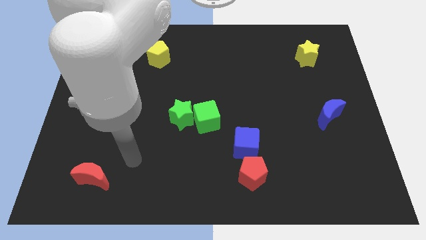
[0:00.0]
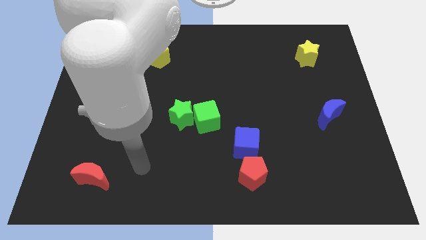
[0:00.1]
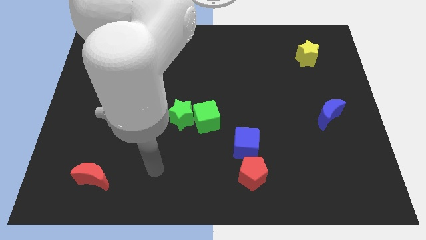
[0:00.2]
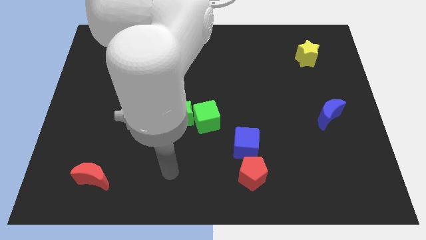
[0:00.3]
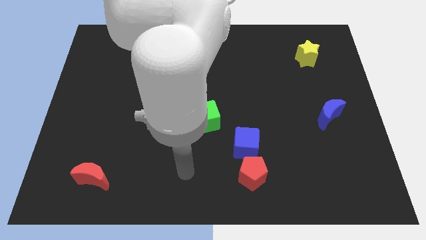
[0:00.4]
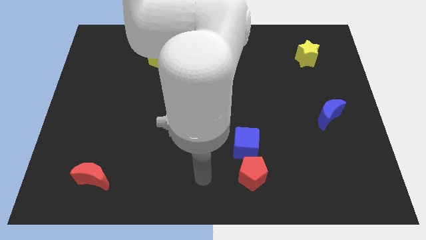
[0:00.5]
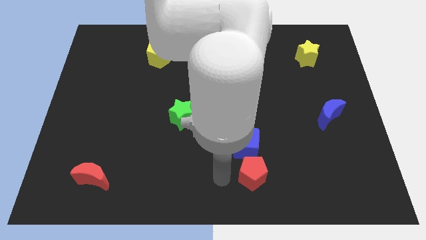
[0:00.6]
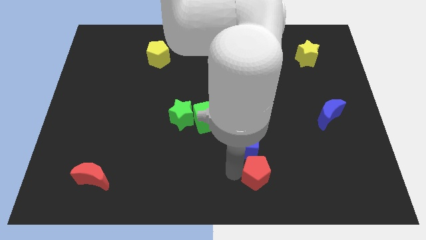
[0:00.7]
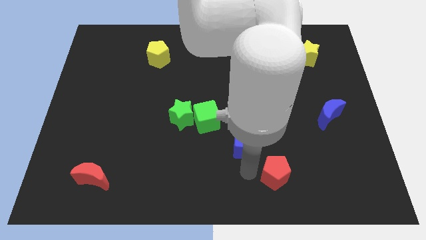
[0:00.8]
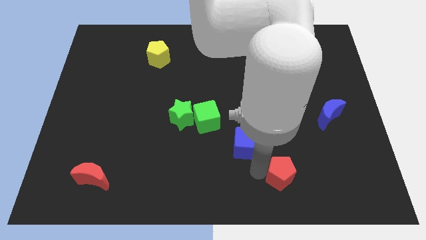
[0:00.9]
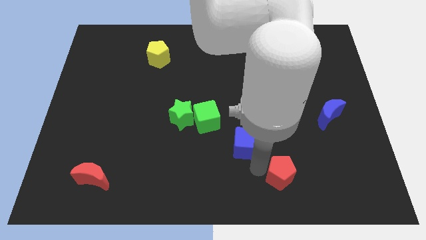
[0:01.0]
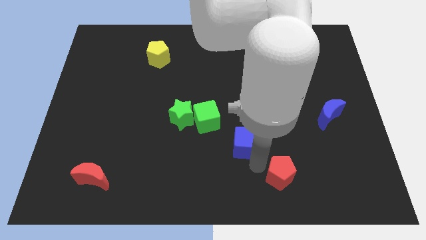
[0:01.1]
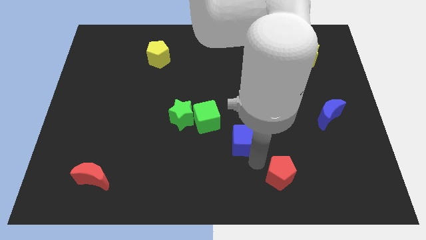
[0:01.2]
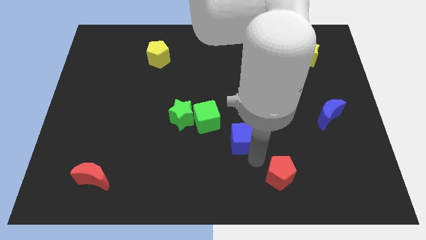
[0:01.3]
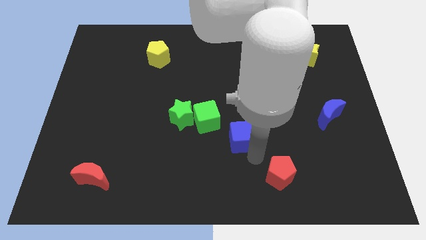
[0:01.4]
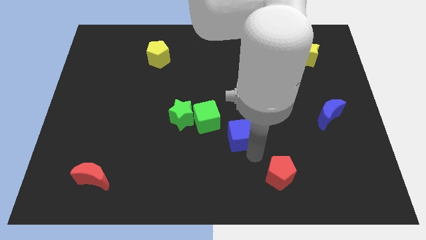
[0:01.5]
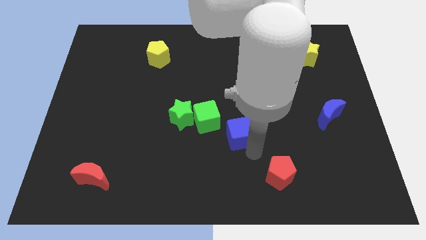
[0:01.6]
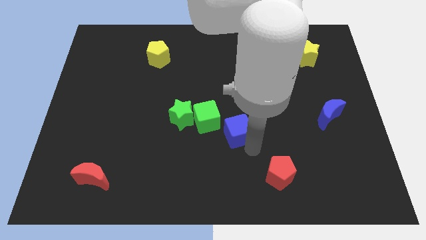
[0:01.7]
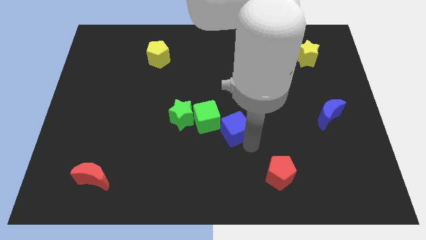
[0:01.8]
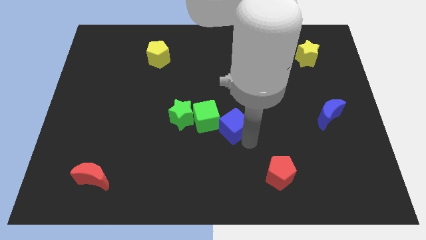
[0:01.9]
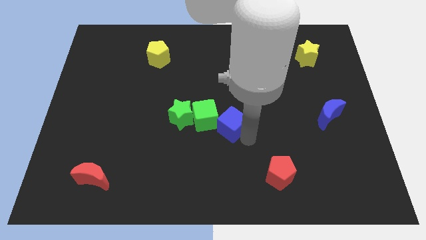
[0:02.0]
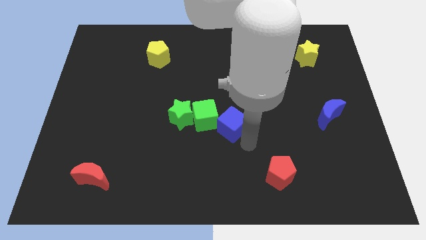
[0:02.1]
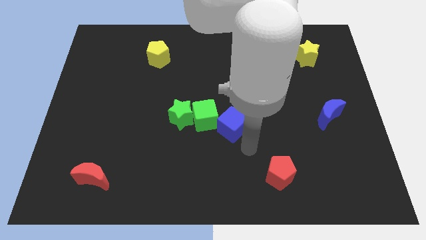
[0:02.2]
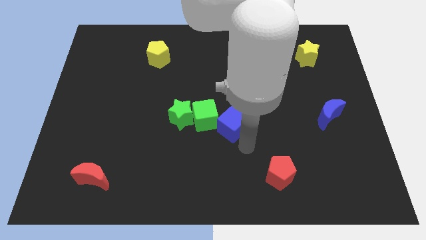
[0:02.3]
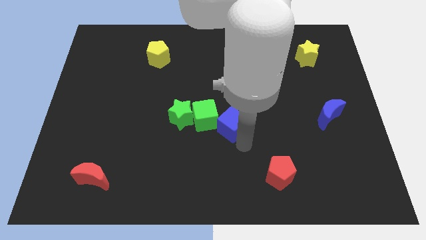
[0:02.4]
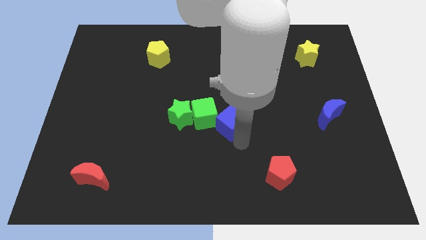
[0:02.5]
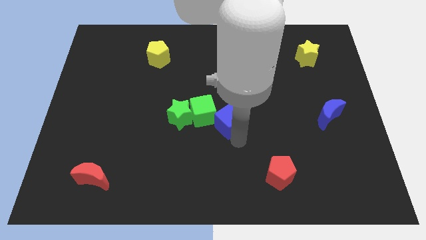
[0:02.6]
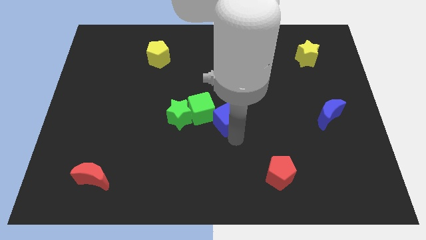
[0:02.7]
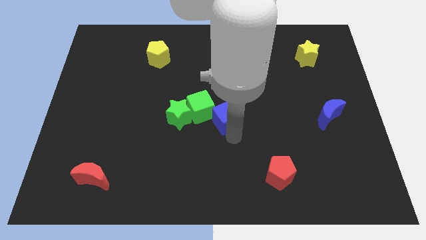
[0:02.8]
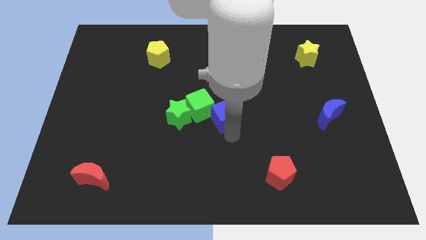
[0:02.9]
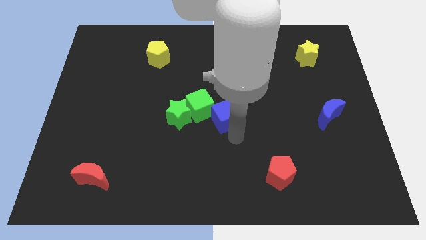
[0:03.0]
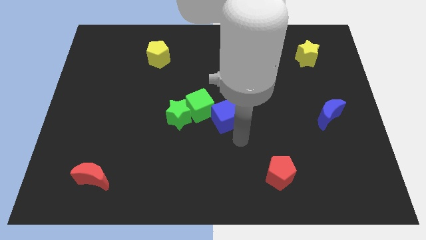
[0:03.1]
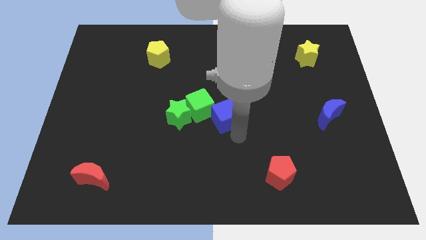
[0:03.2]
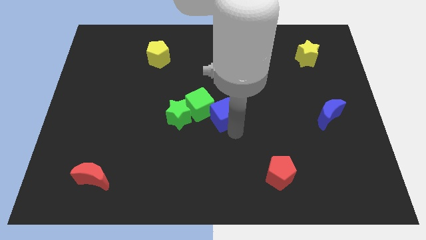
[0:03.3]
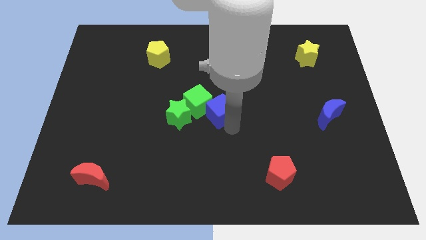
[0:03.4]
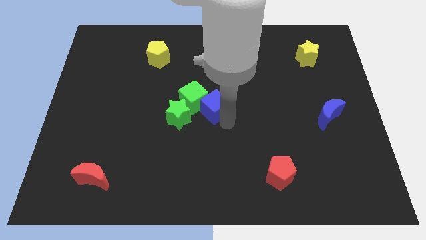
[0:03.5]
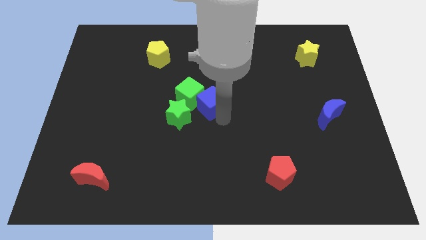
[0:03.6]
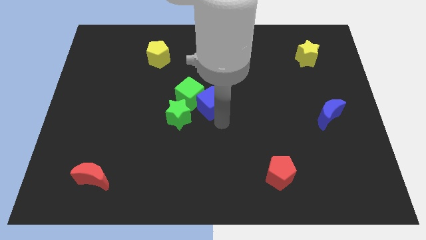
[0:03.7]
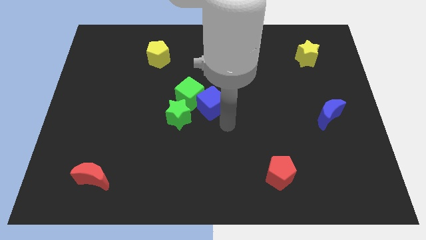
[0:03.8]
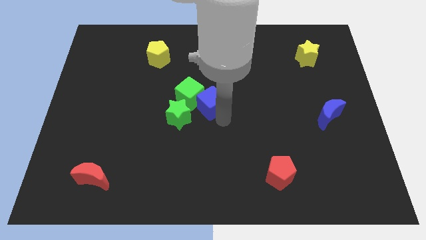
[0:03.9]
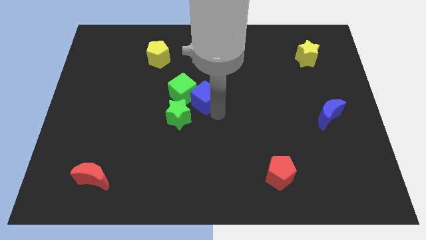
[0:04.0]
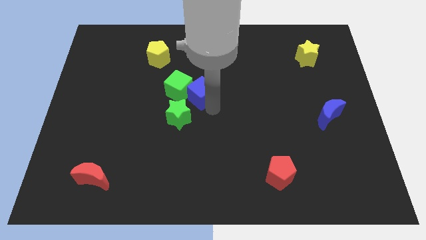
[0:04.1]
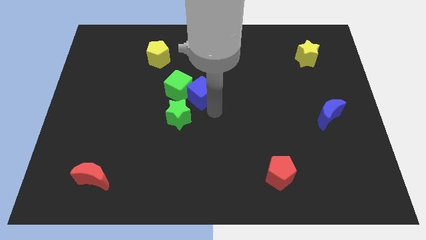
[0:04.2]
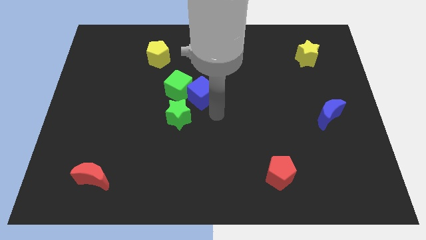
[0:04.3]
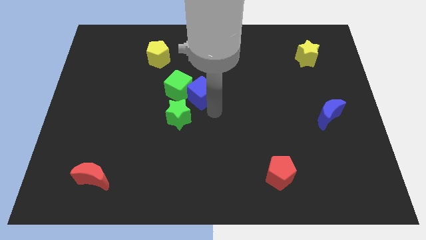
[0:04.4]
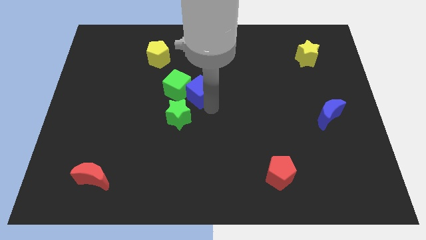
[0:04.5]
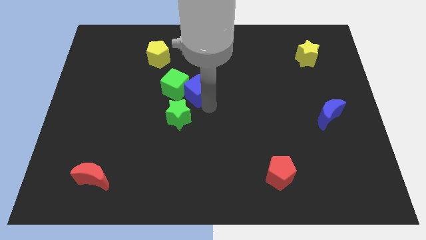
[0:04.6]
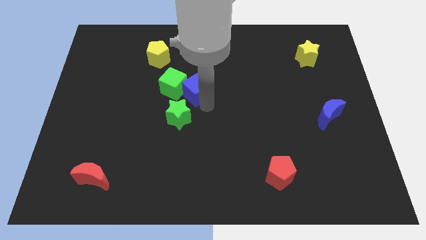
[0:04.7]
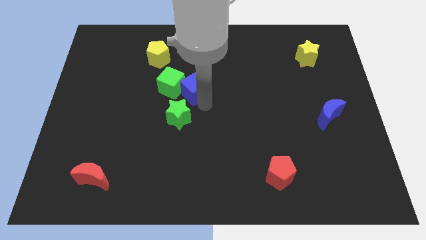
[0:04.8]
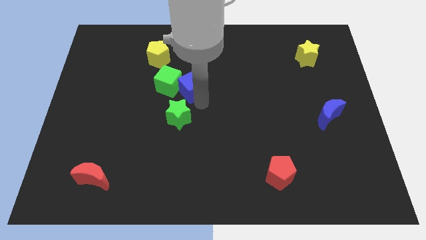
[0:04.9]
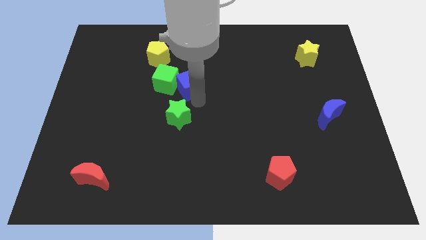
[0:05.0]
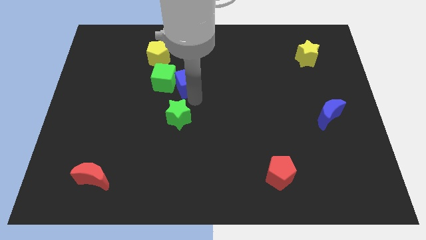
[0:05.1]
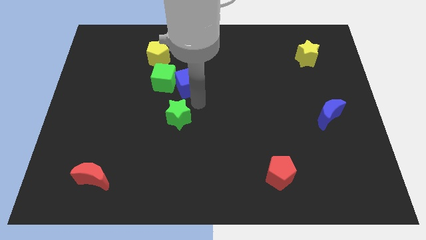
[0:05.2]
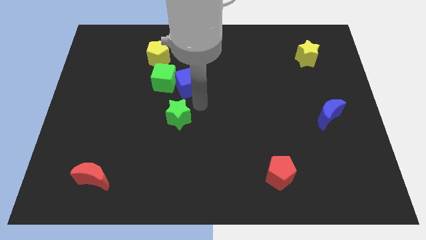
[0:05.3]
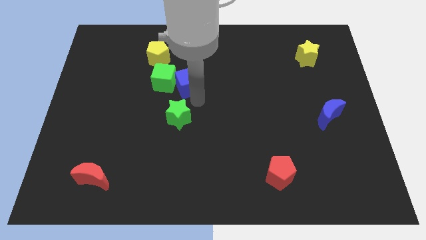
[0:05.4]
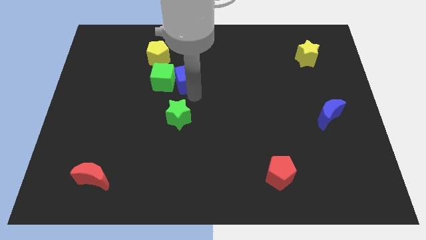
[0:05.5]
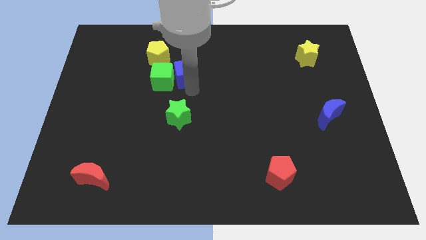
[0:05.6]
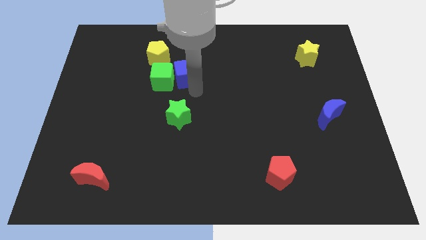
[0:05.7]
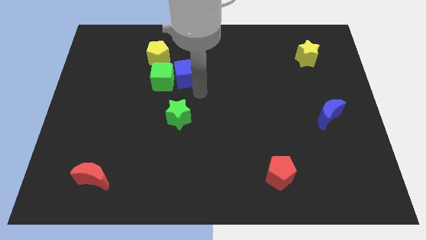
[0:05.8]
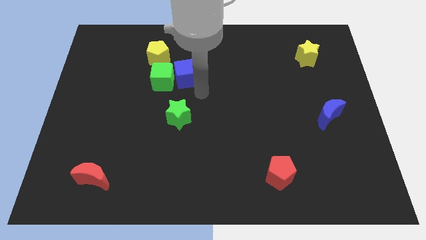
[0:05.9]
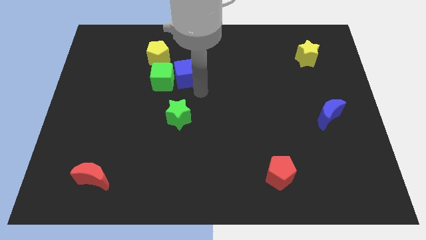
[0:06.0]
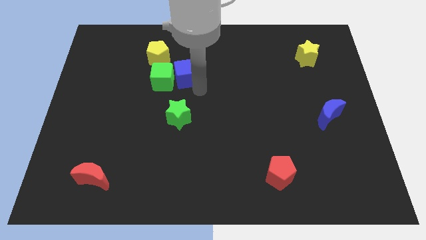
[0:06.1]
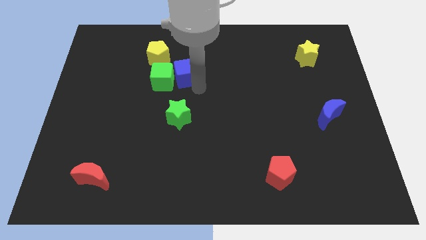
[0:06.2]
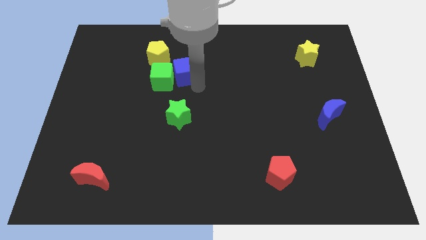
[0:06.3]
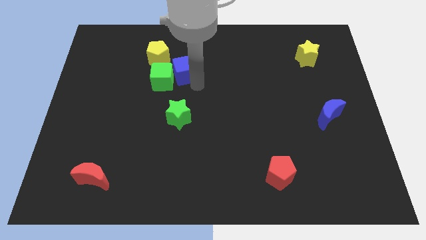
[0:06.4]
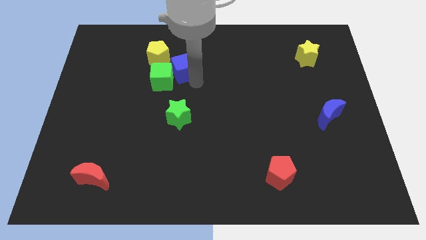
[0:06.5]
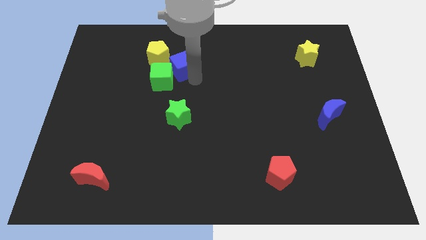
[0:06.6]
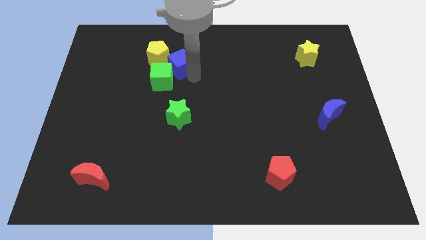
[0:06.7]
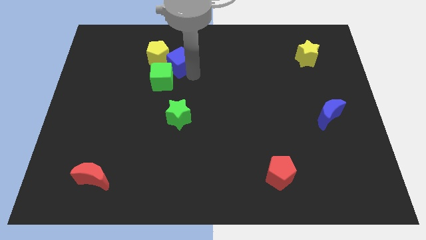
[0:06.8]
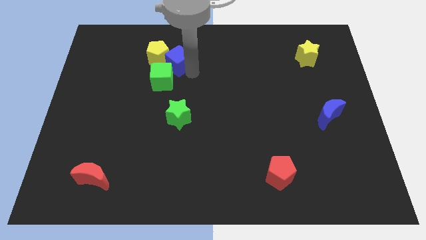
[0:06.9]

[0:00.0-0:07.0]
put the blue cube next to the yellow pentagon
